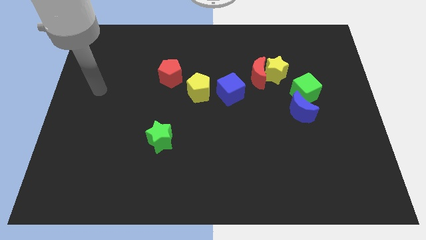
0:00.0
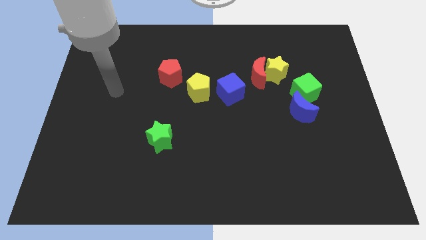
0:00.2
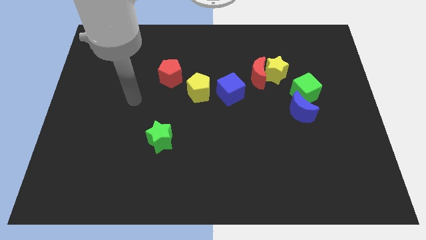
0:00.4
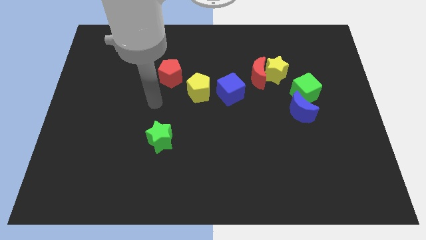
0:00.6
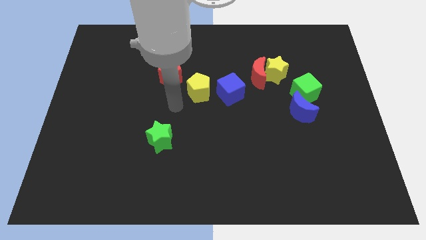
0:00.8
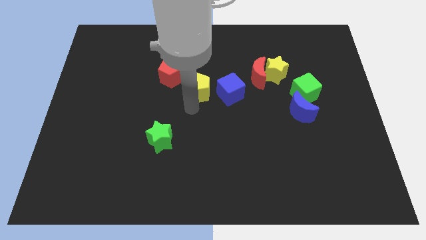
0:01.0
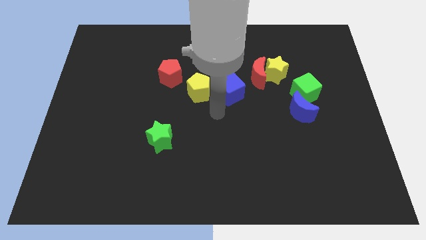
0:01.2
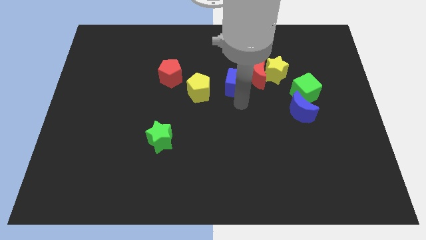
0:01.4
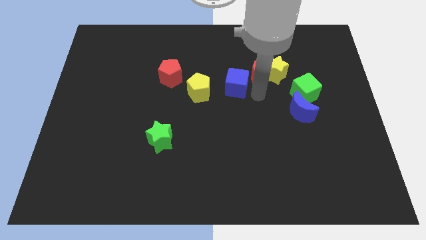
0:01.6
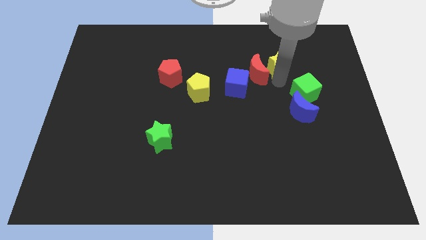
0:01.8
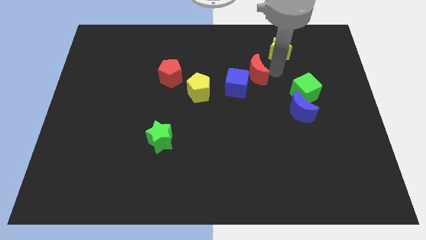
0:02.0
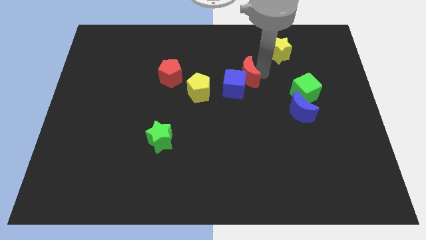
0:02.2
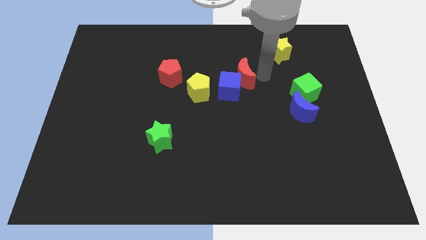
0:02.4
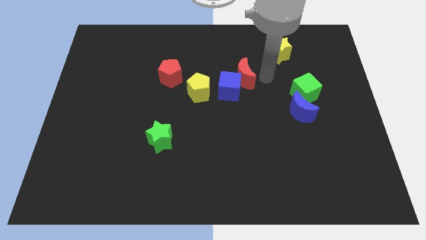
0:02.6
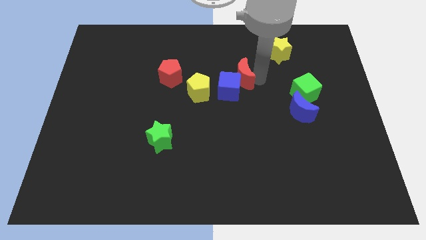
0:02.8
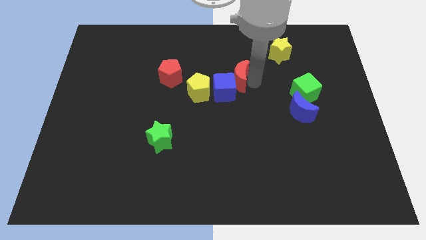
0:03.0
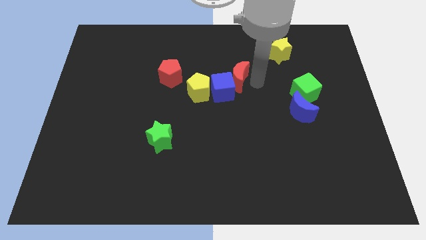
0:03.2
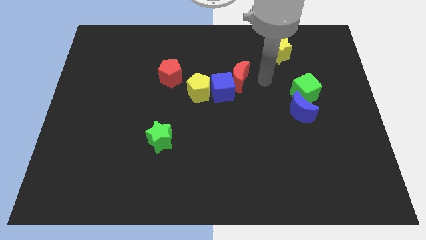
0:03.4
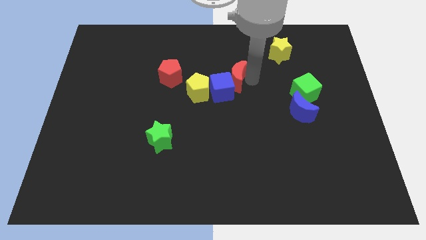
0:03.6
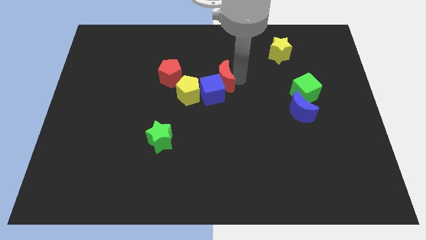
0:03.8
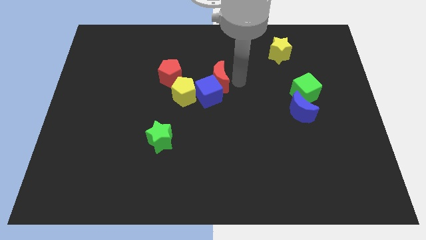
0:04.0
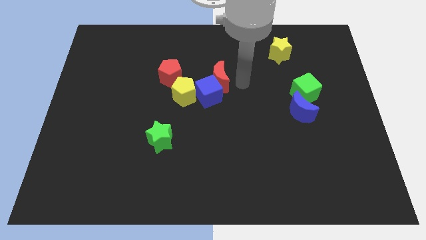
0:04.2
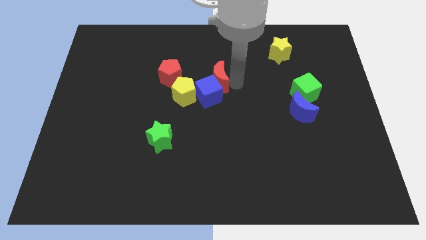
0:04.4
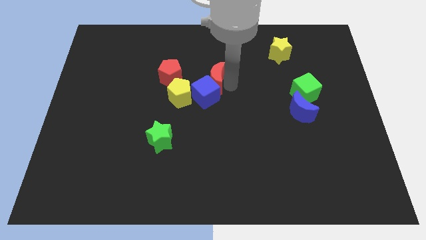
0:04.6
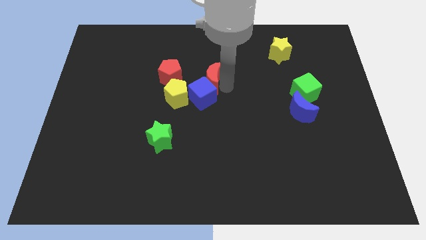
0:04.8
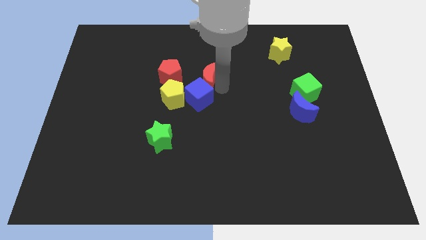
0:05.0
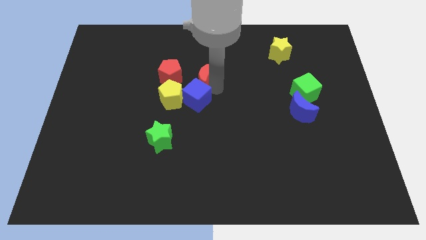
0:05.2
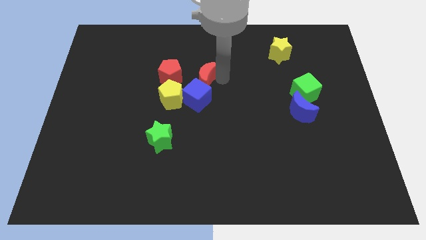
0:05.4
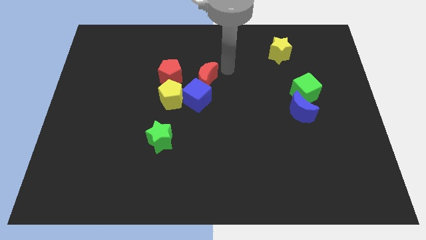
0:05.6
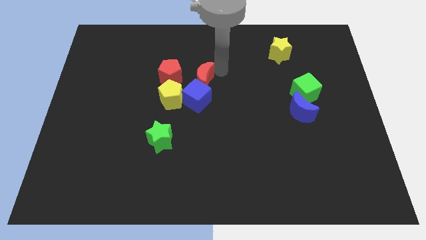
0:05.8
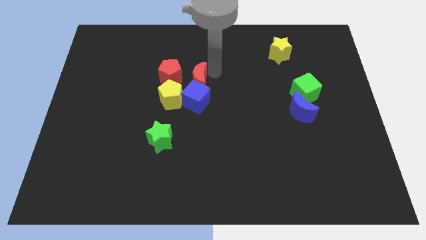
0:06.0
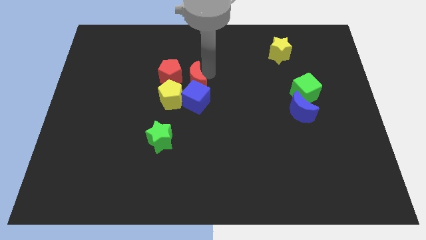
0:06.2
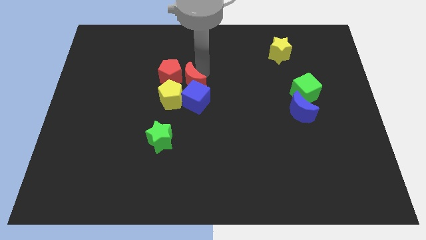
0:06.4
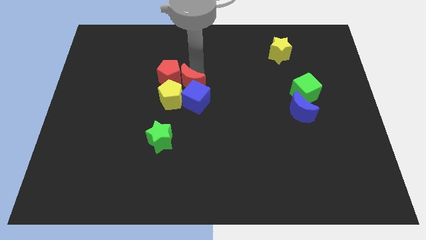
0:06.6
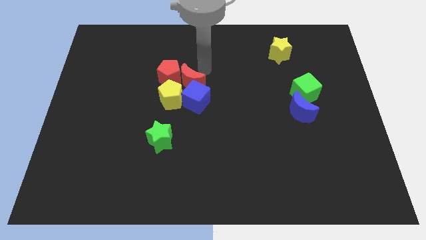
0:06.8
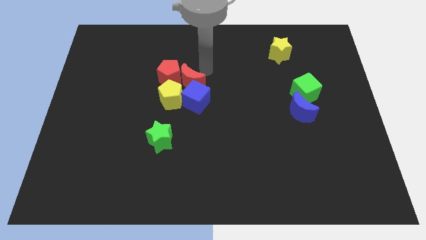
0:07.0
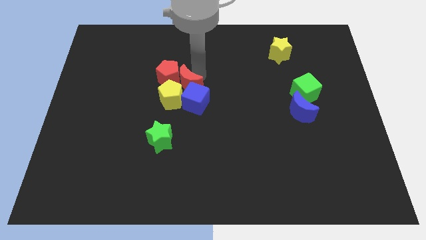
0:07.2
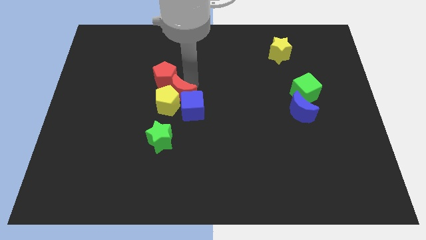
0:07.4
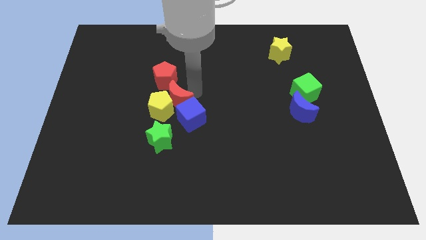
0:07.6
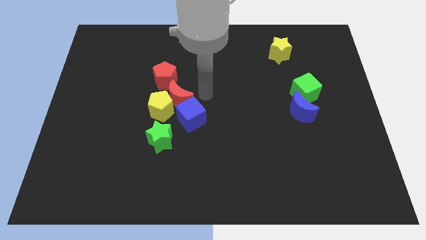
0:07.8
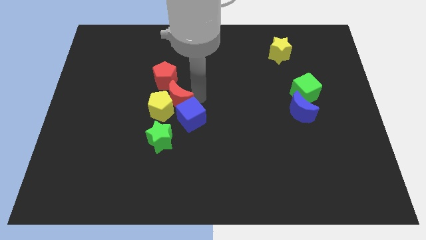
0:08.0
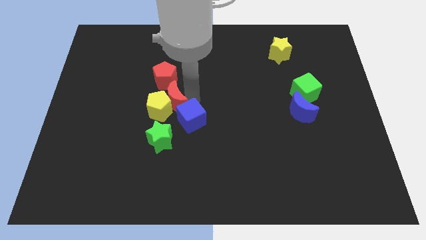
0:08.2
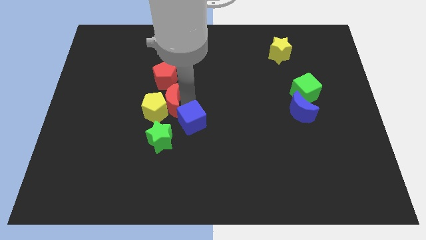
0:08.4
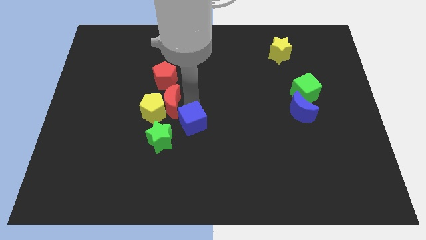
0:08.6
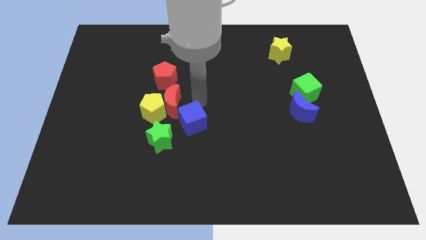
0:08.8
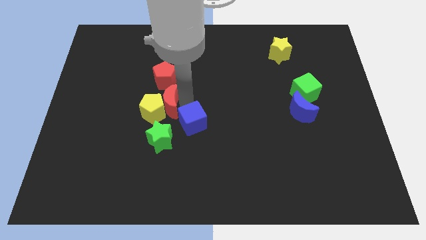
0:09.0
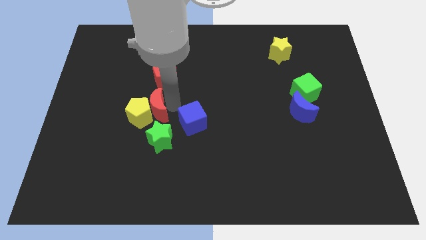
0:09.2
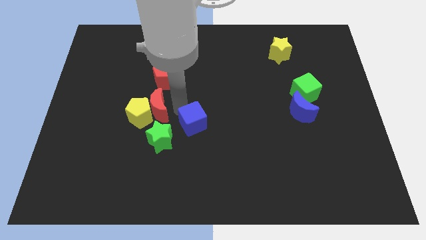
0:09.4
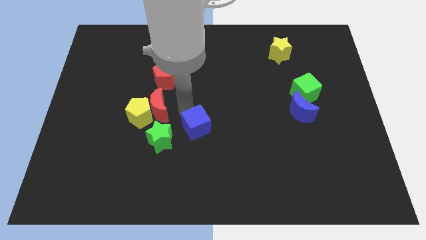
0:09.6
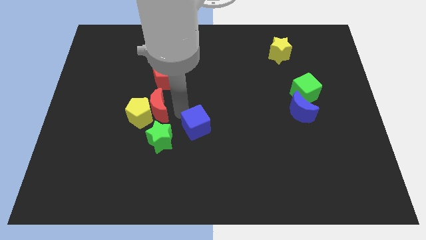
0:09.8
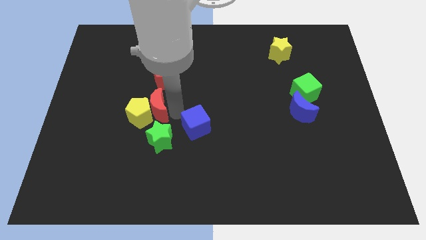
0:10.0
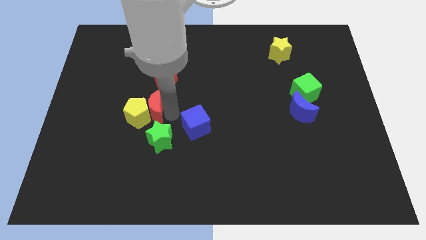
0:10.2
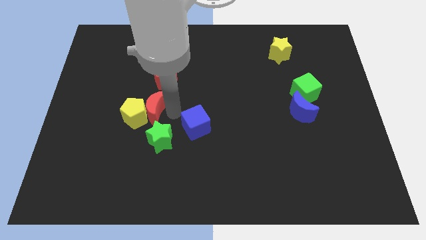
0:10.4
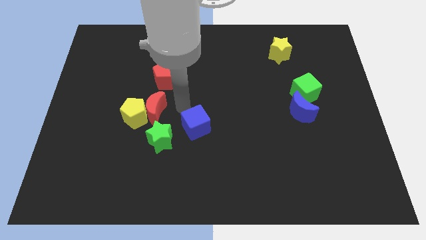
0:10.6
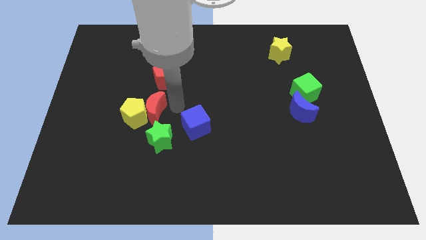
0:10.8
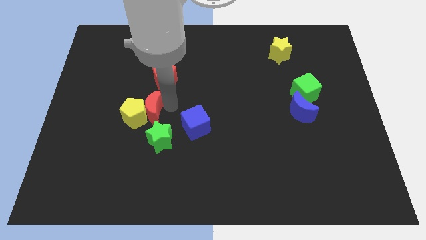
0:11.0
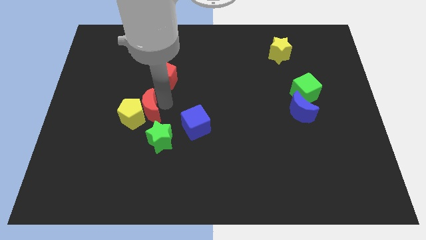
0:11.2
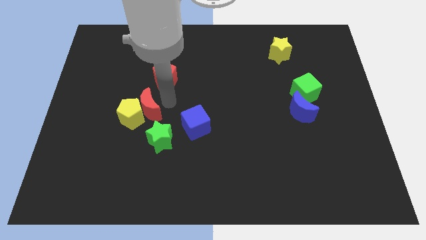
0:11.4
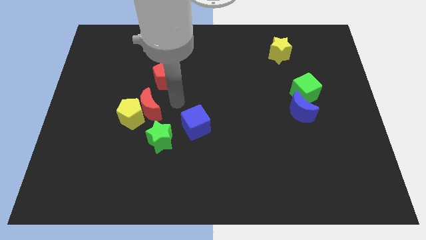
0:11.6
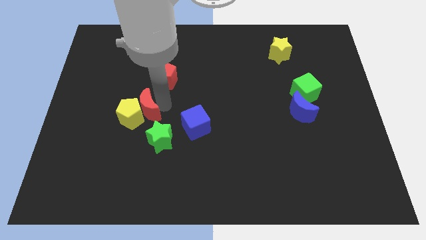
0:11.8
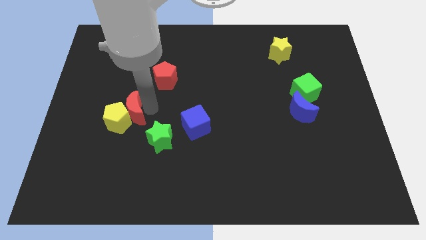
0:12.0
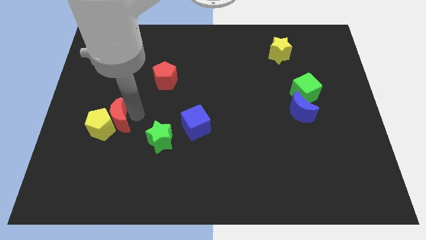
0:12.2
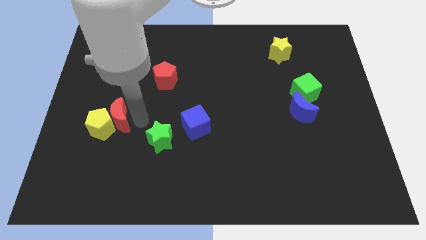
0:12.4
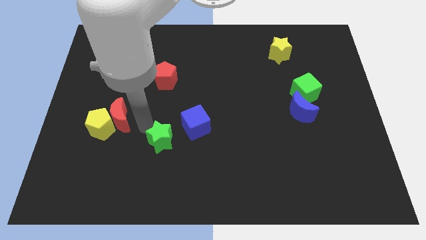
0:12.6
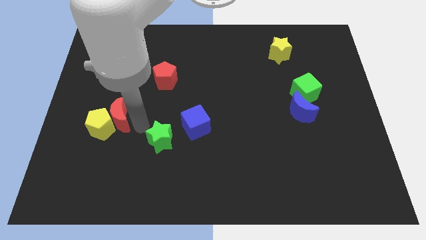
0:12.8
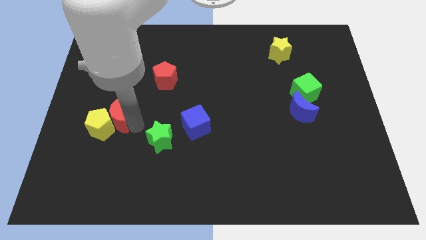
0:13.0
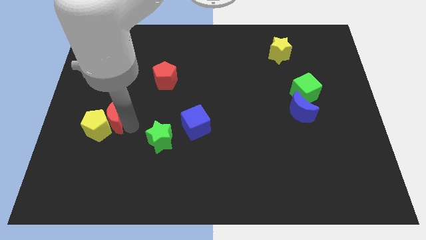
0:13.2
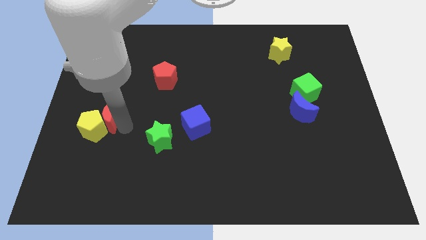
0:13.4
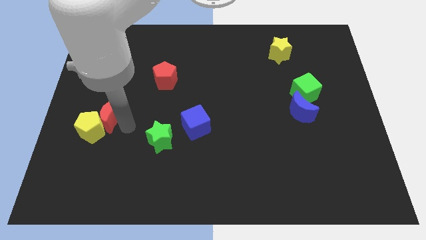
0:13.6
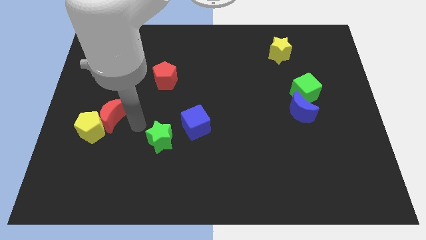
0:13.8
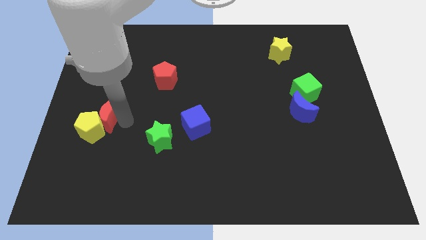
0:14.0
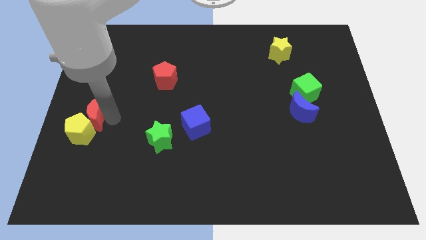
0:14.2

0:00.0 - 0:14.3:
put the red moon to the left side
